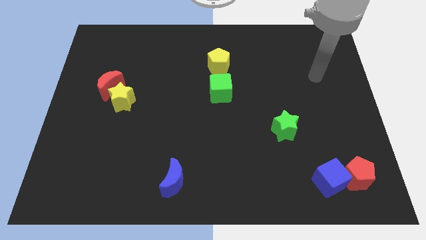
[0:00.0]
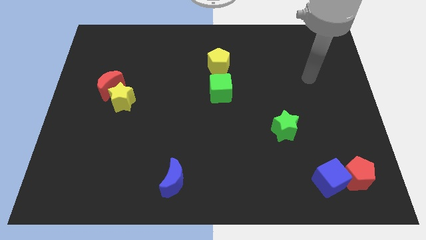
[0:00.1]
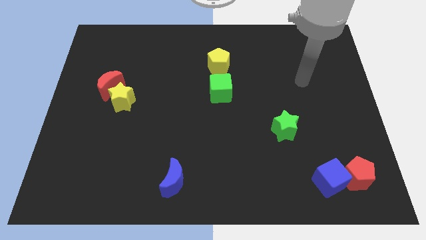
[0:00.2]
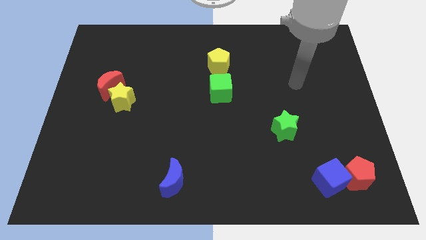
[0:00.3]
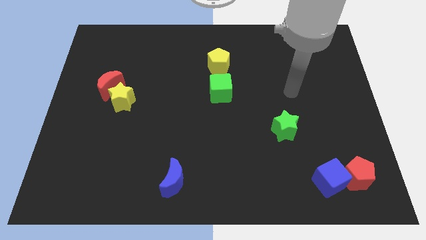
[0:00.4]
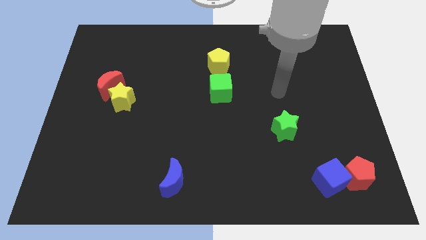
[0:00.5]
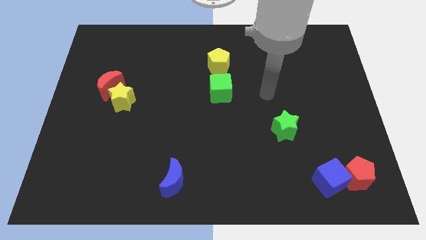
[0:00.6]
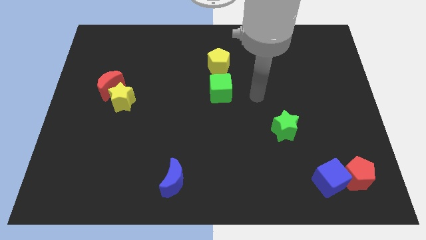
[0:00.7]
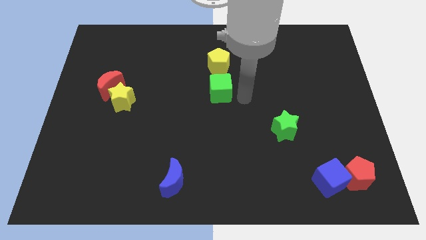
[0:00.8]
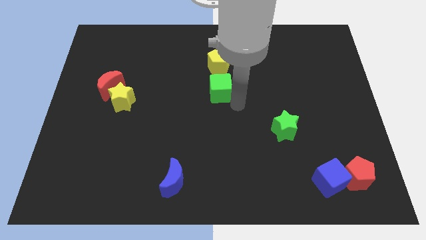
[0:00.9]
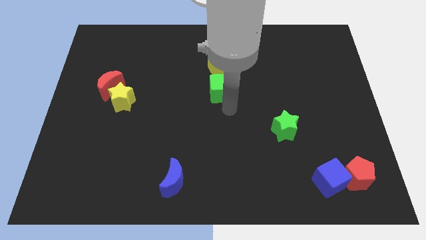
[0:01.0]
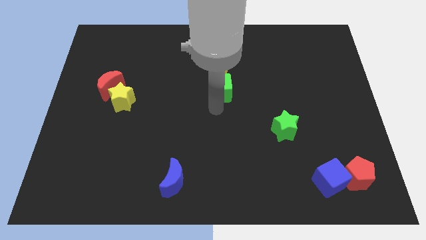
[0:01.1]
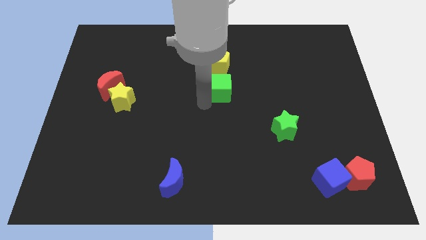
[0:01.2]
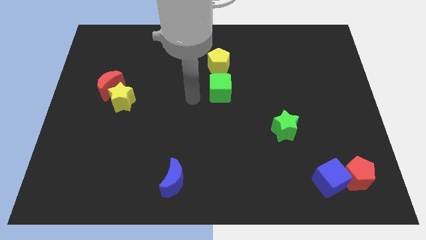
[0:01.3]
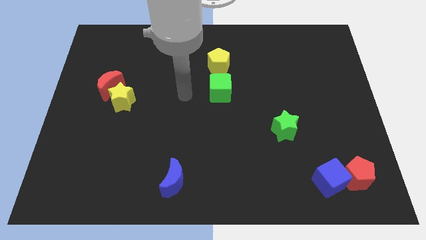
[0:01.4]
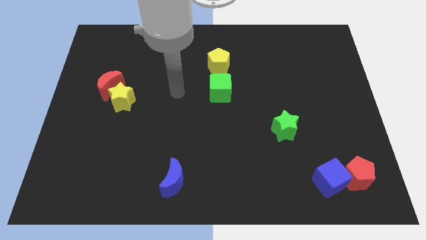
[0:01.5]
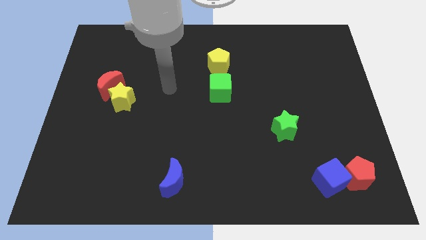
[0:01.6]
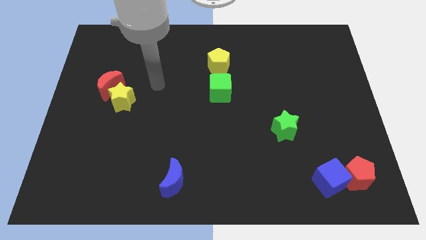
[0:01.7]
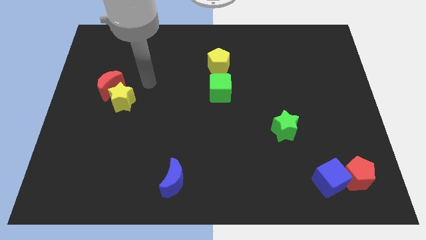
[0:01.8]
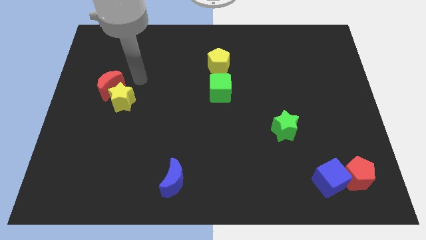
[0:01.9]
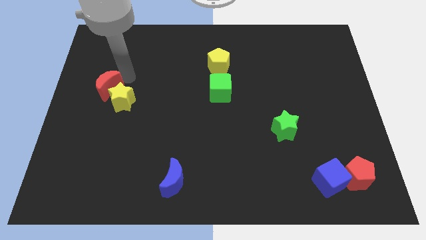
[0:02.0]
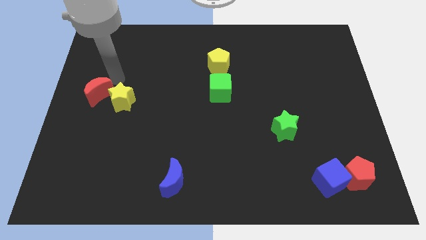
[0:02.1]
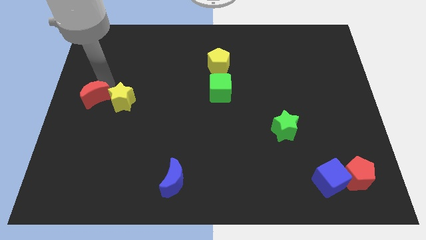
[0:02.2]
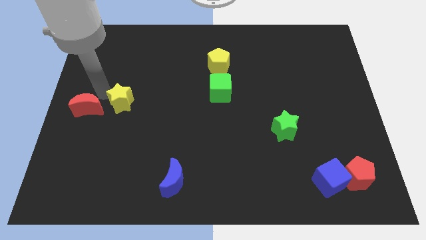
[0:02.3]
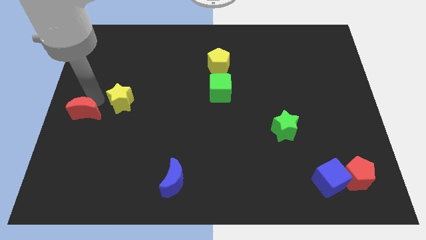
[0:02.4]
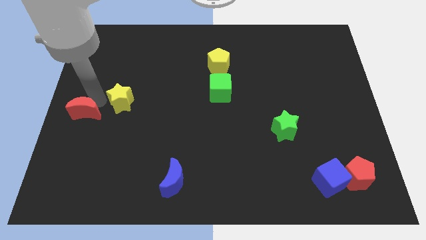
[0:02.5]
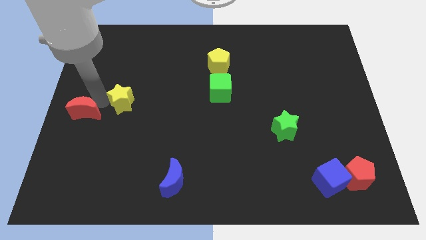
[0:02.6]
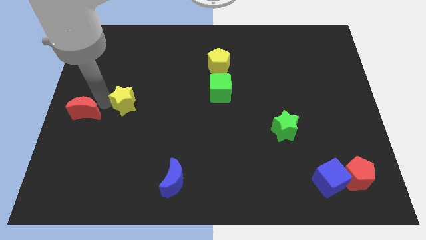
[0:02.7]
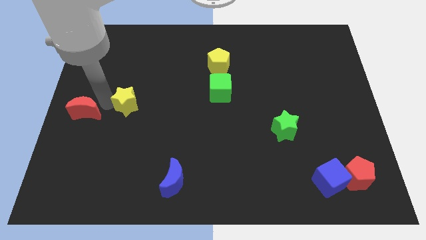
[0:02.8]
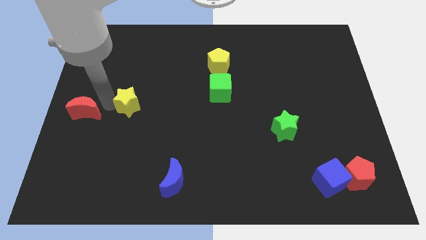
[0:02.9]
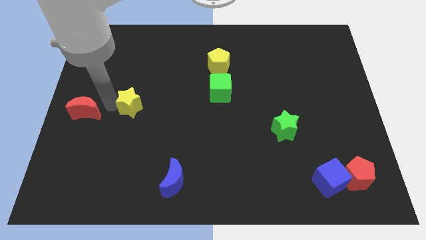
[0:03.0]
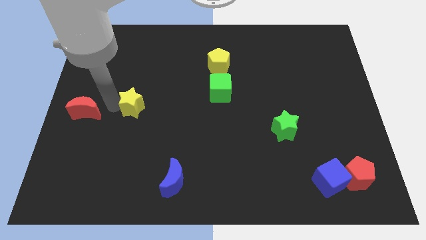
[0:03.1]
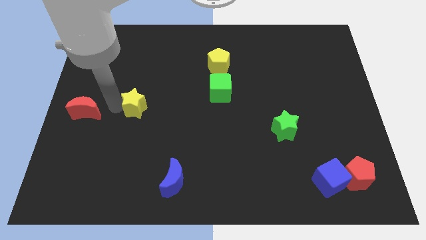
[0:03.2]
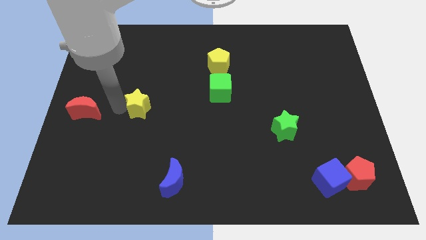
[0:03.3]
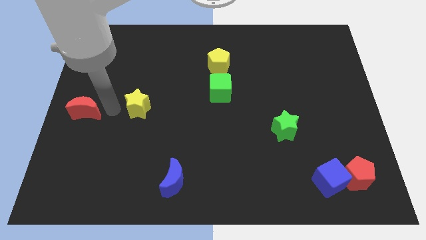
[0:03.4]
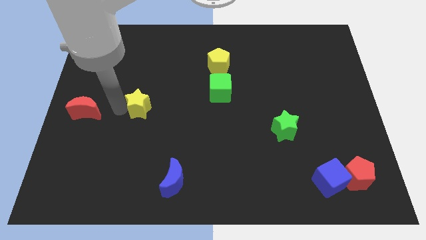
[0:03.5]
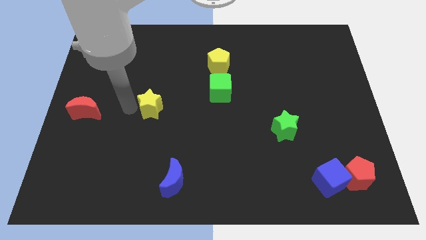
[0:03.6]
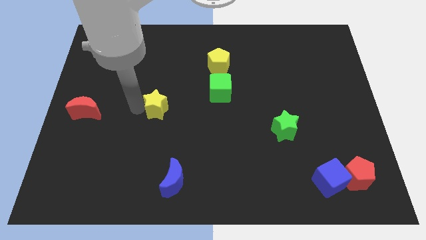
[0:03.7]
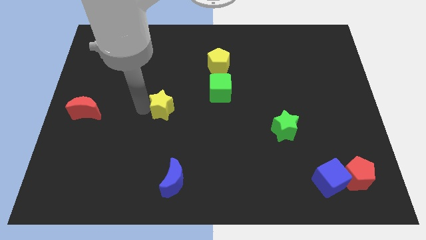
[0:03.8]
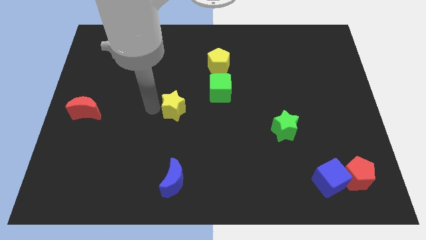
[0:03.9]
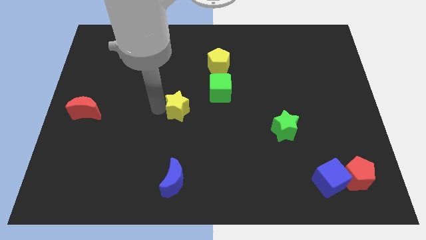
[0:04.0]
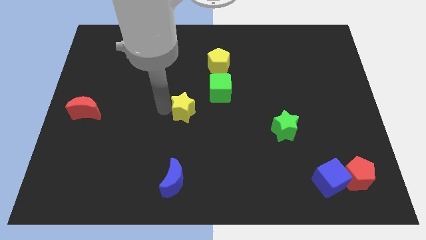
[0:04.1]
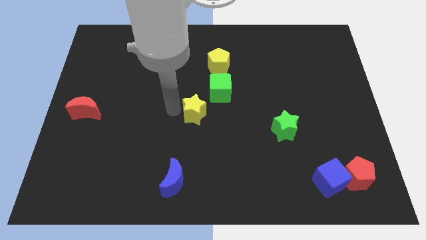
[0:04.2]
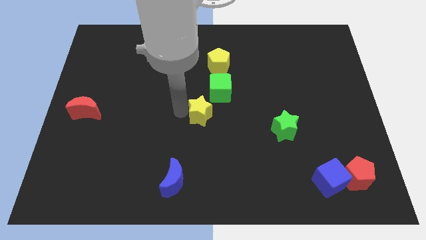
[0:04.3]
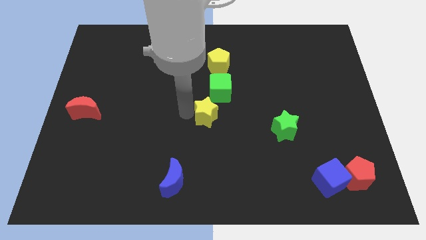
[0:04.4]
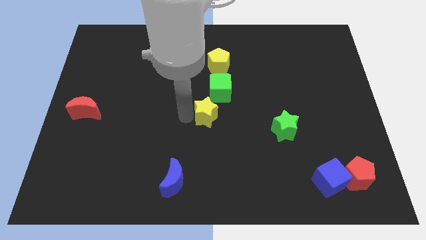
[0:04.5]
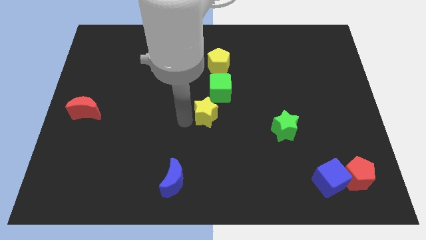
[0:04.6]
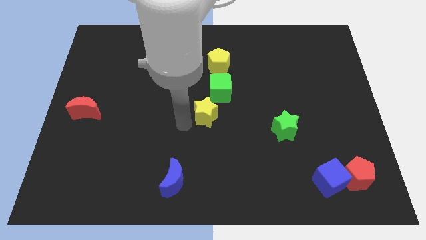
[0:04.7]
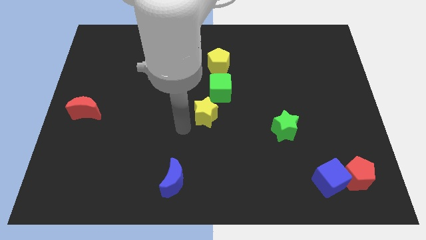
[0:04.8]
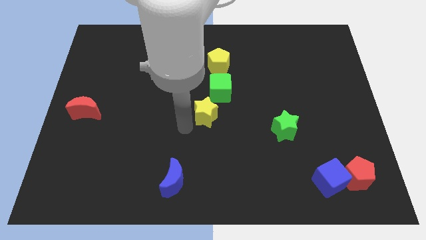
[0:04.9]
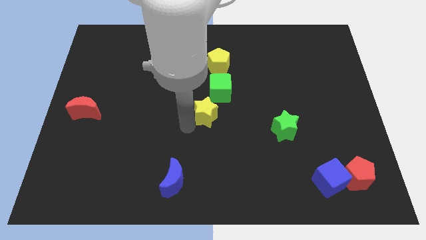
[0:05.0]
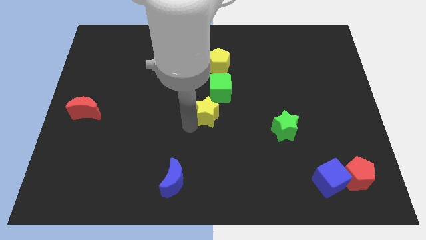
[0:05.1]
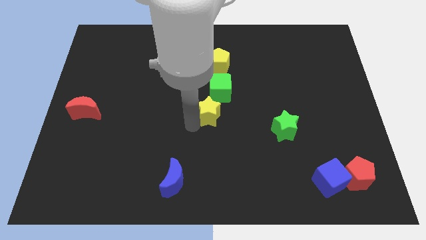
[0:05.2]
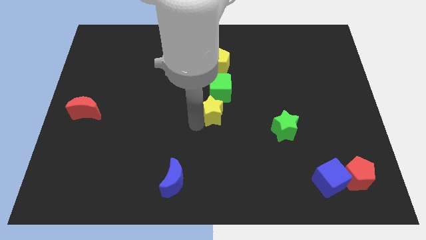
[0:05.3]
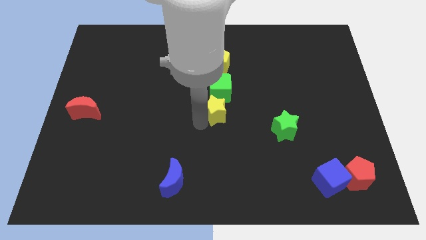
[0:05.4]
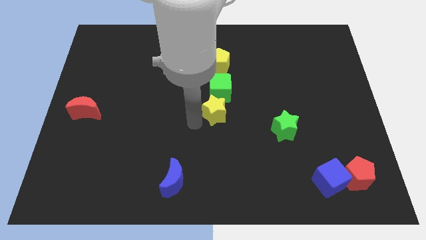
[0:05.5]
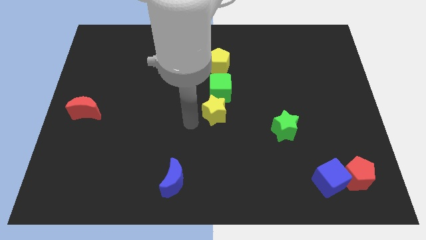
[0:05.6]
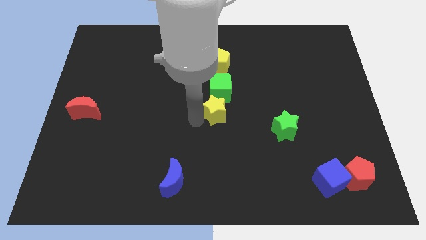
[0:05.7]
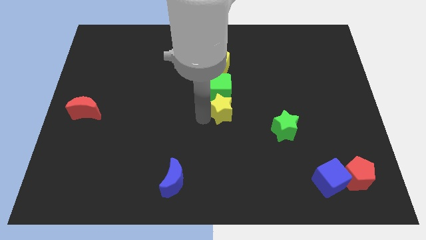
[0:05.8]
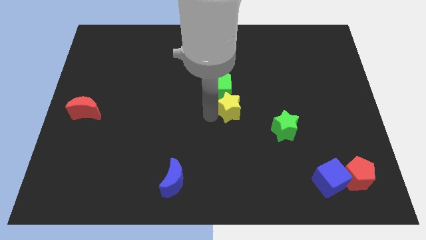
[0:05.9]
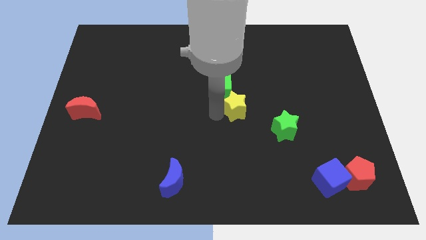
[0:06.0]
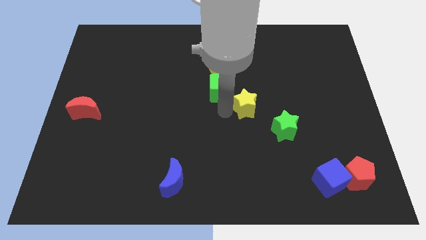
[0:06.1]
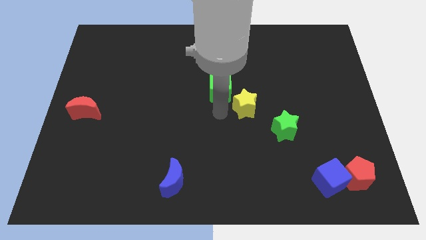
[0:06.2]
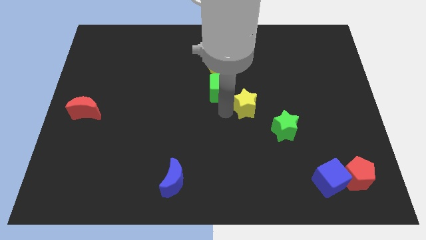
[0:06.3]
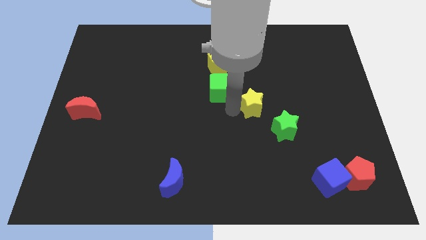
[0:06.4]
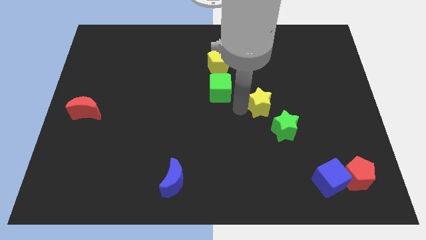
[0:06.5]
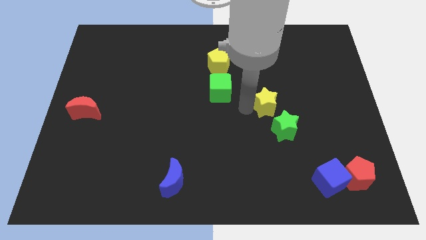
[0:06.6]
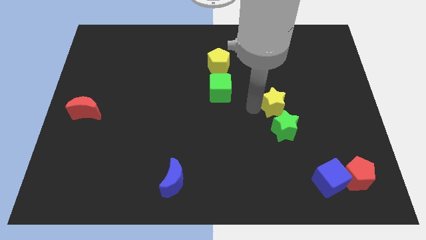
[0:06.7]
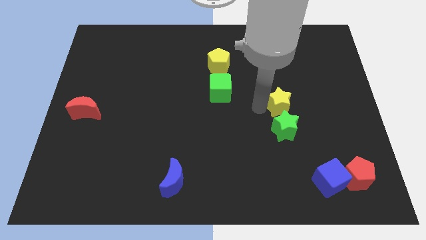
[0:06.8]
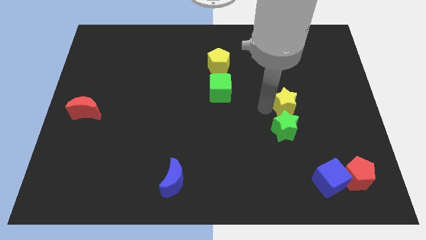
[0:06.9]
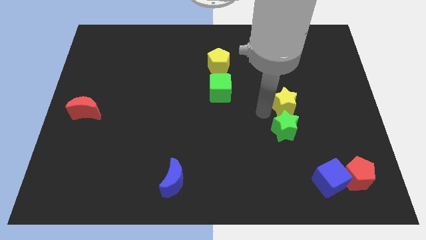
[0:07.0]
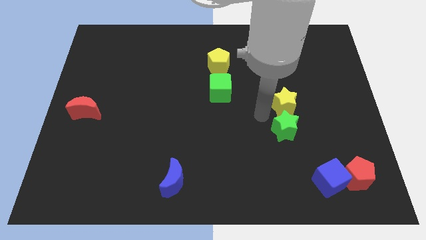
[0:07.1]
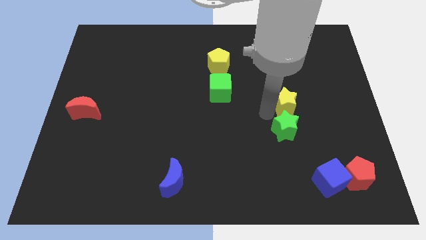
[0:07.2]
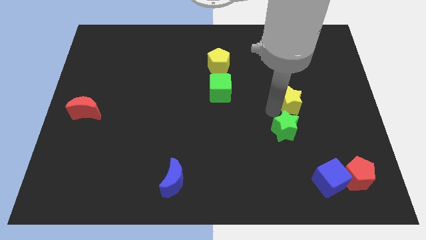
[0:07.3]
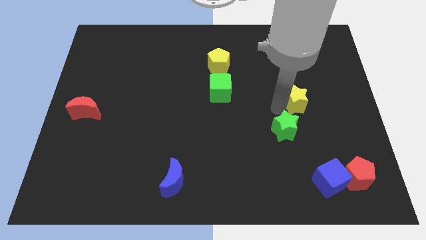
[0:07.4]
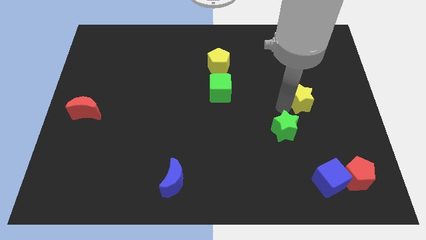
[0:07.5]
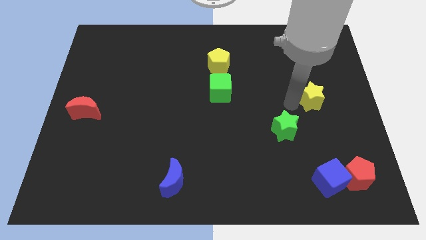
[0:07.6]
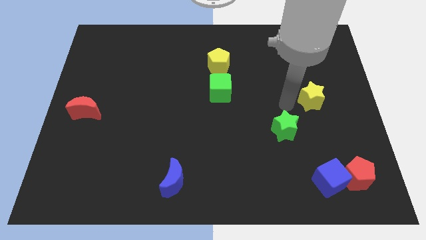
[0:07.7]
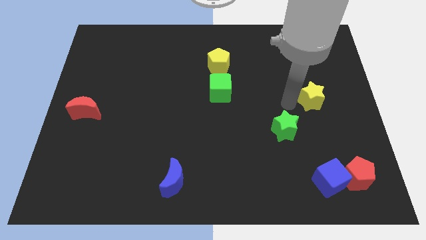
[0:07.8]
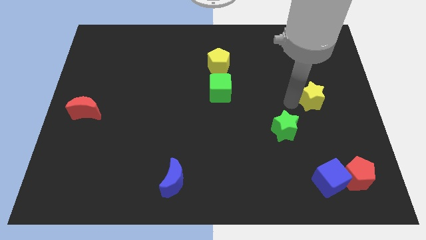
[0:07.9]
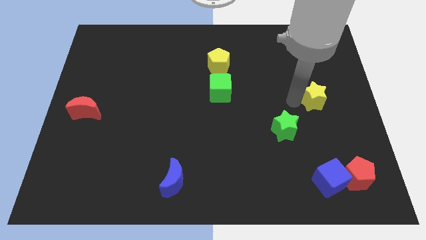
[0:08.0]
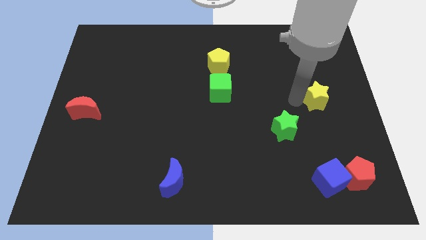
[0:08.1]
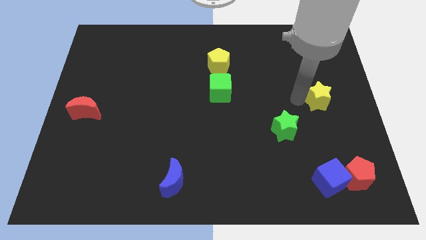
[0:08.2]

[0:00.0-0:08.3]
push the yellow star to the center right
